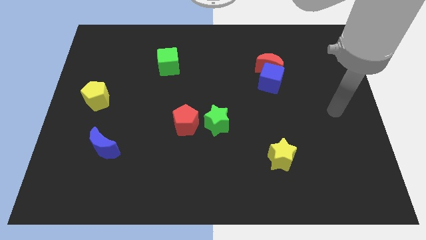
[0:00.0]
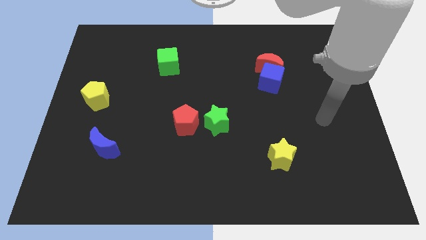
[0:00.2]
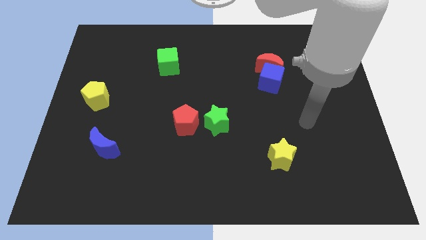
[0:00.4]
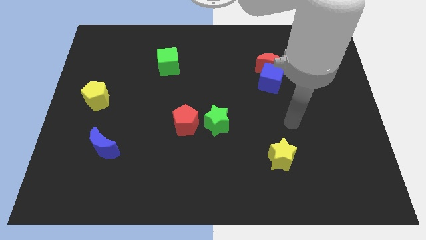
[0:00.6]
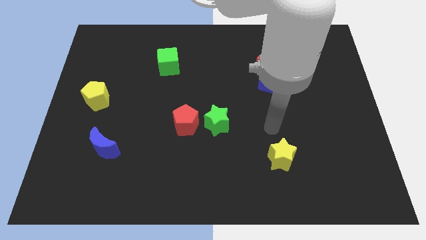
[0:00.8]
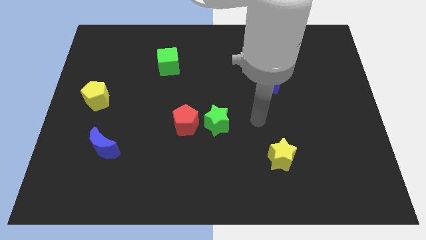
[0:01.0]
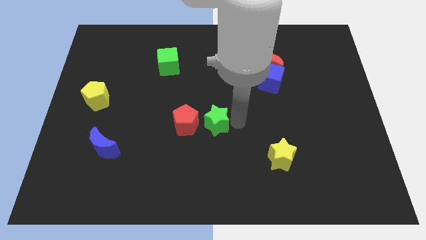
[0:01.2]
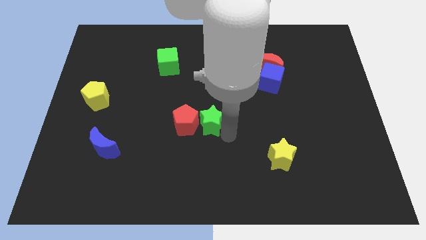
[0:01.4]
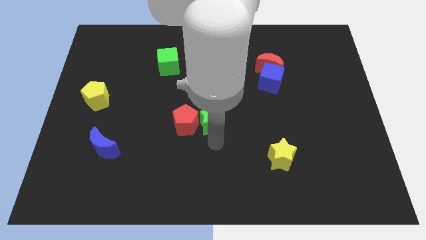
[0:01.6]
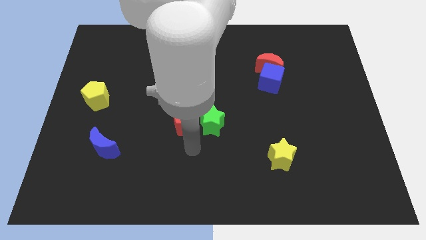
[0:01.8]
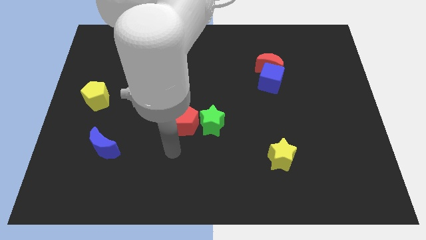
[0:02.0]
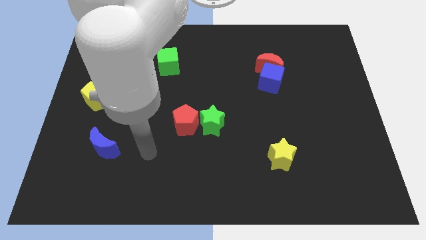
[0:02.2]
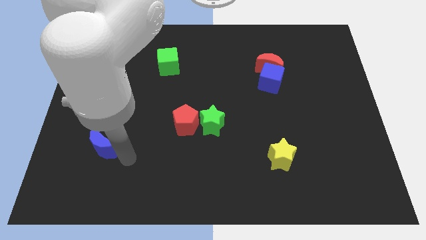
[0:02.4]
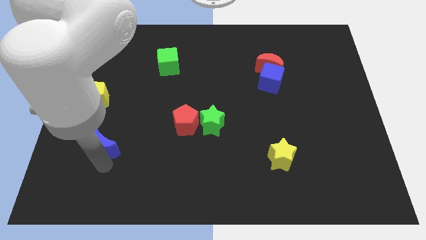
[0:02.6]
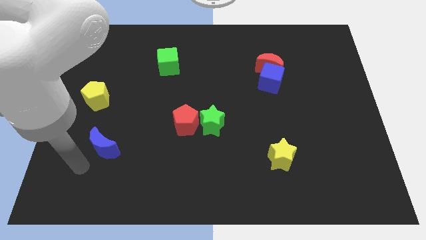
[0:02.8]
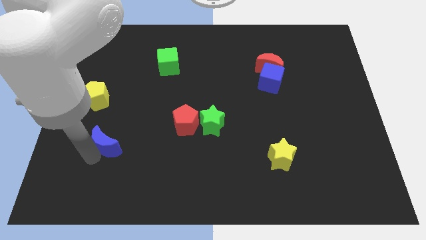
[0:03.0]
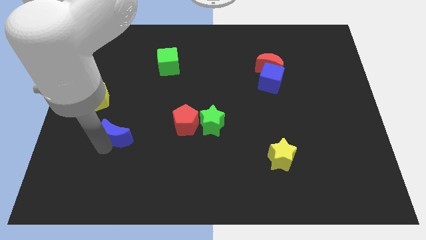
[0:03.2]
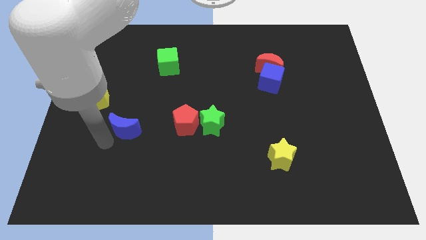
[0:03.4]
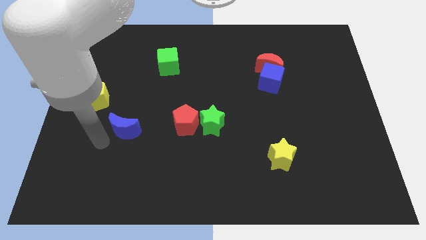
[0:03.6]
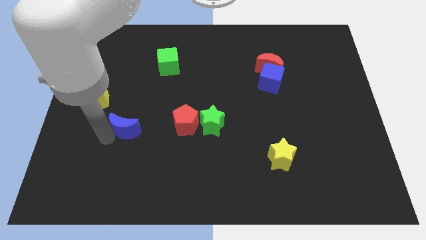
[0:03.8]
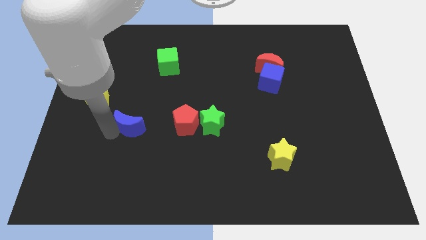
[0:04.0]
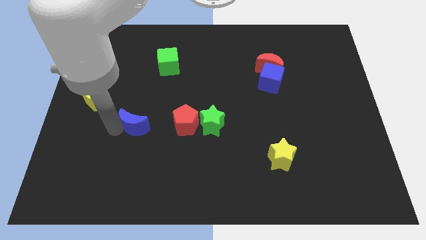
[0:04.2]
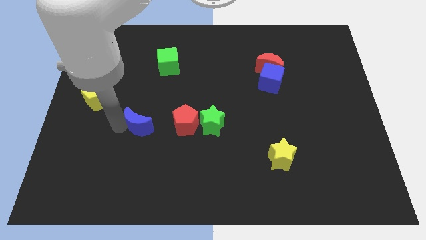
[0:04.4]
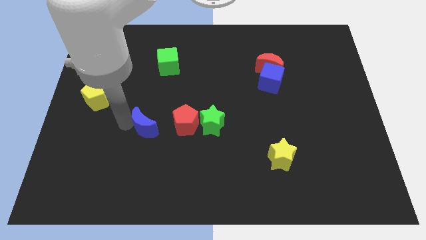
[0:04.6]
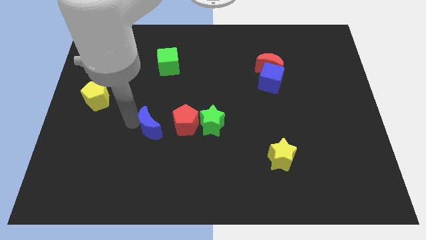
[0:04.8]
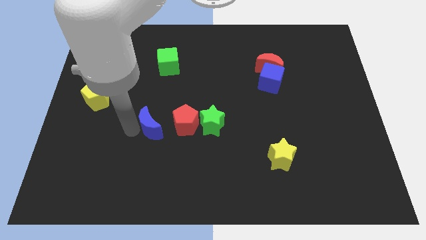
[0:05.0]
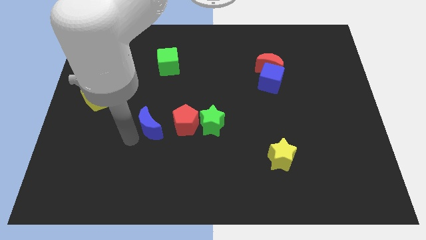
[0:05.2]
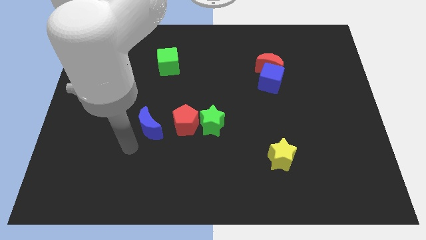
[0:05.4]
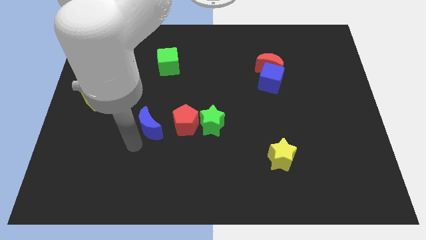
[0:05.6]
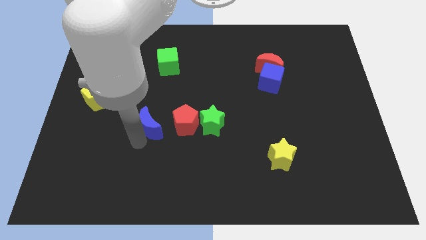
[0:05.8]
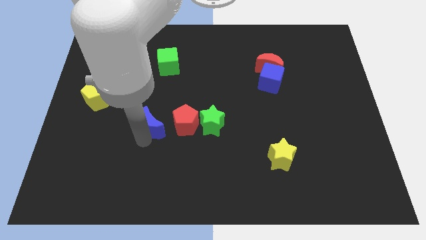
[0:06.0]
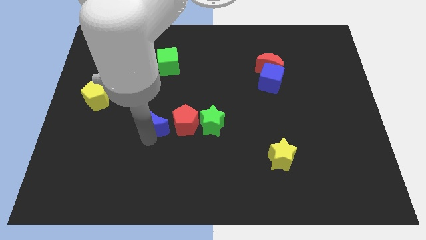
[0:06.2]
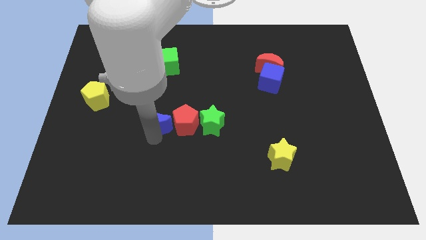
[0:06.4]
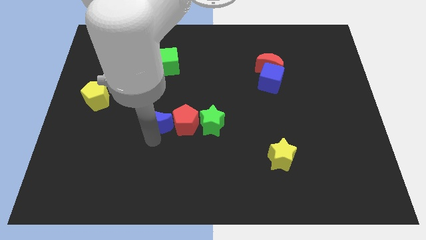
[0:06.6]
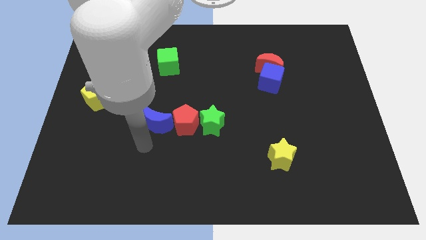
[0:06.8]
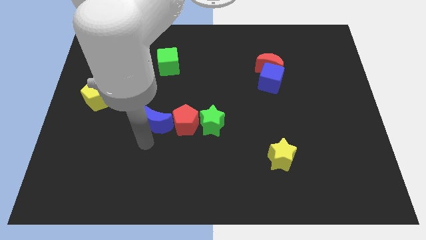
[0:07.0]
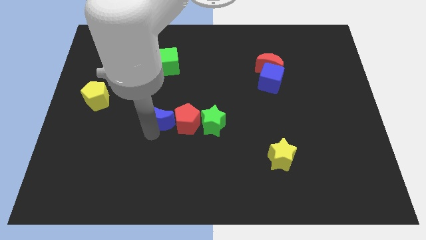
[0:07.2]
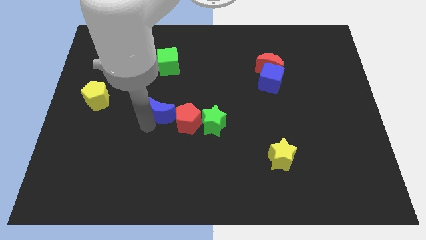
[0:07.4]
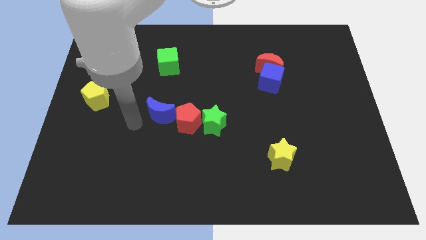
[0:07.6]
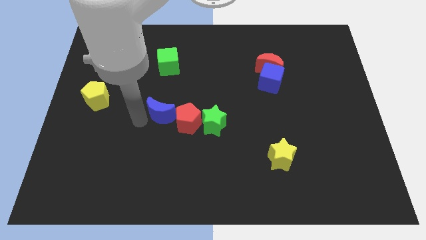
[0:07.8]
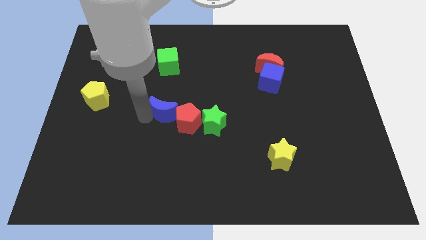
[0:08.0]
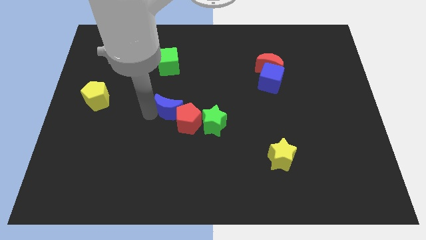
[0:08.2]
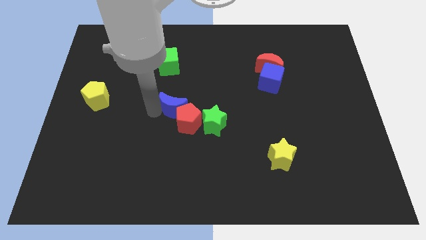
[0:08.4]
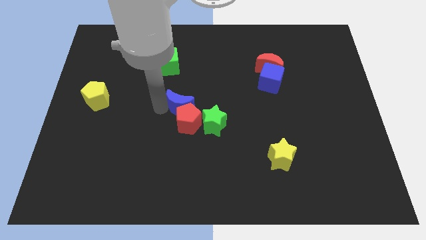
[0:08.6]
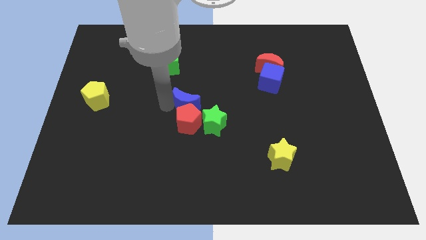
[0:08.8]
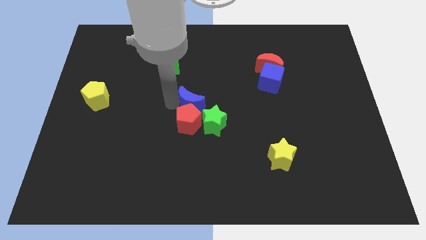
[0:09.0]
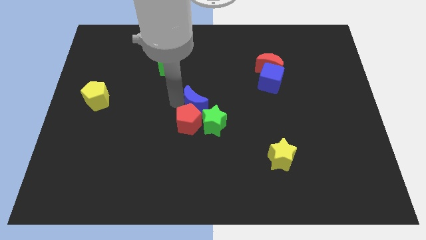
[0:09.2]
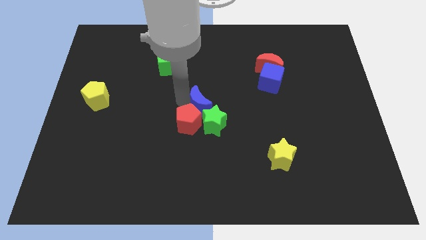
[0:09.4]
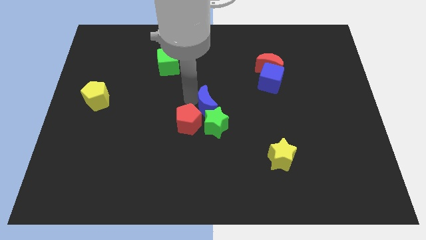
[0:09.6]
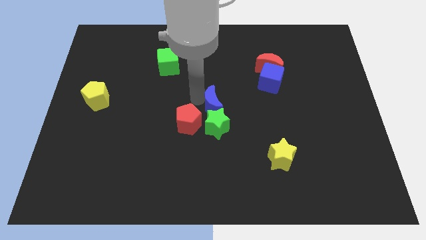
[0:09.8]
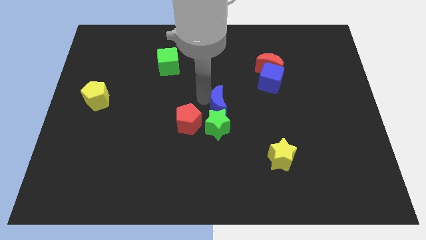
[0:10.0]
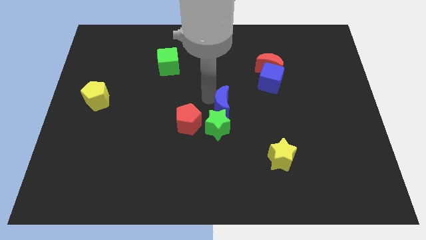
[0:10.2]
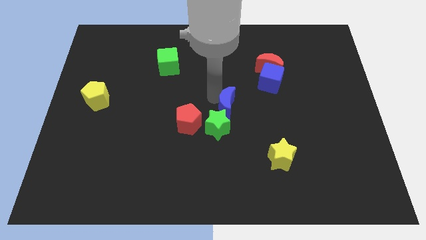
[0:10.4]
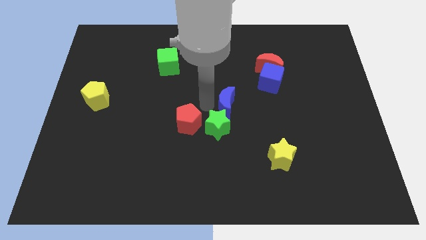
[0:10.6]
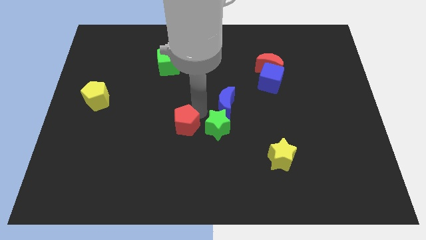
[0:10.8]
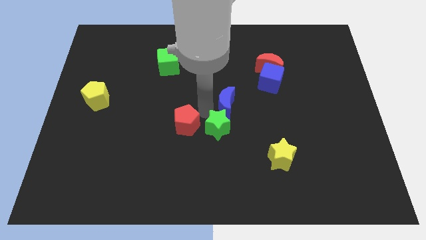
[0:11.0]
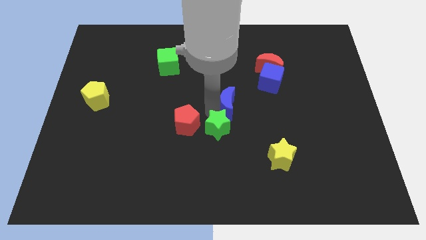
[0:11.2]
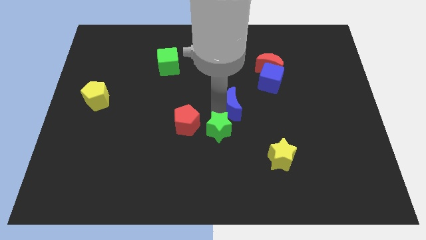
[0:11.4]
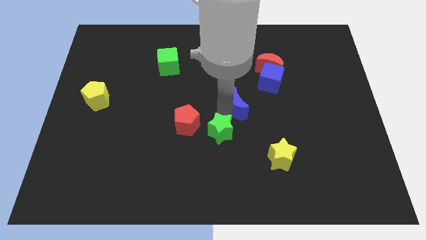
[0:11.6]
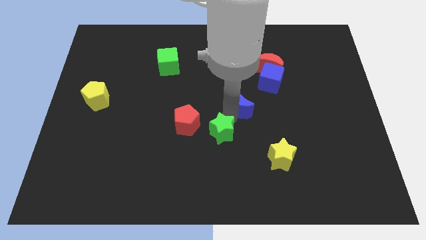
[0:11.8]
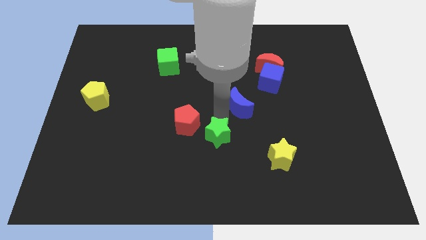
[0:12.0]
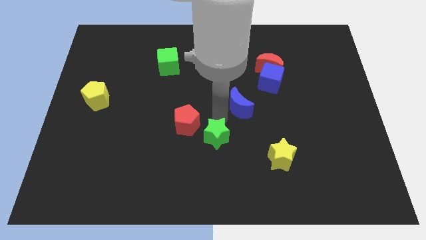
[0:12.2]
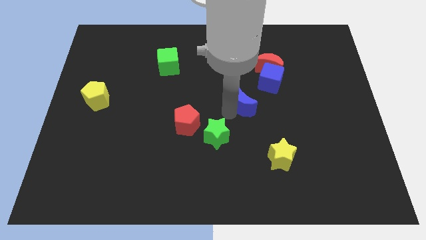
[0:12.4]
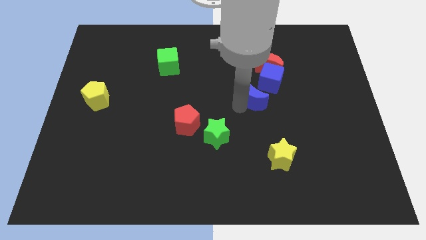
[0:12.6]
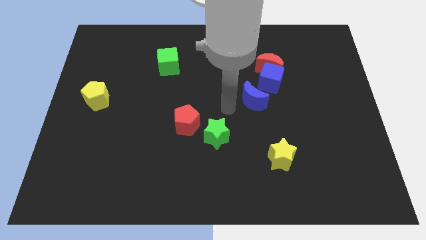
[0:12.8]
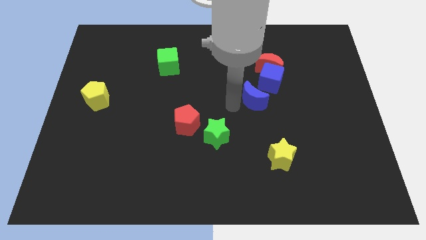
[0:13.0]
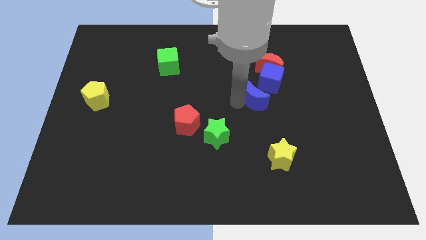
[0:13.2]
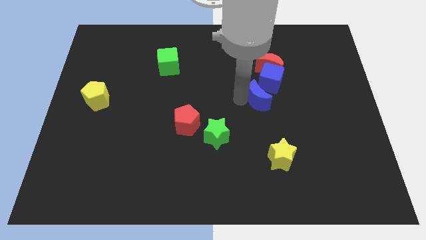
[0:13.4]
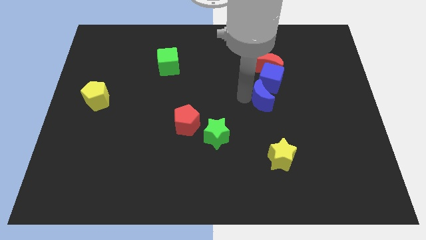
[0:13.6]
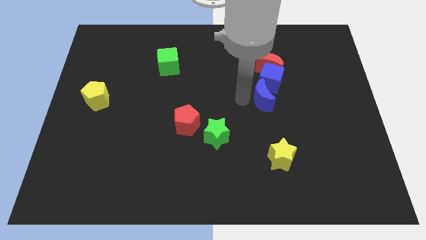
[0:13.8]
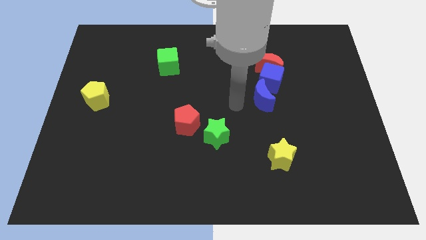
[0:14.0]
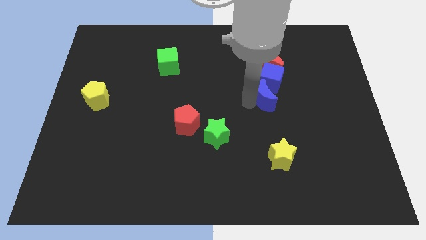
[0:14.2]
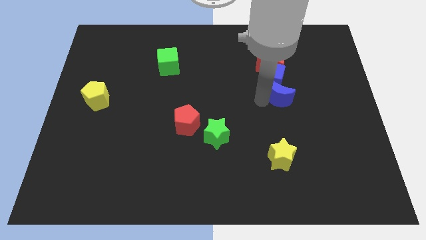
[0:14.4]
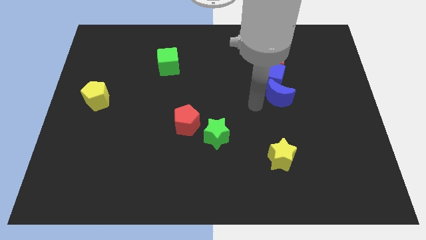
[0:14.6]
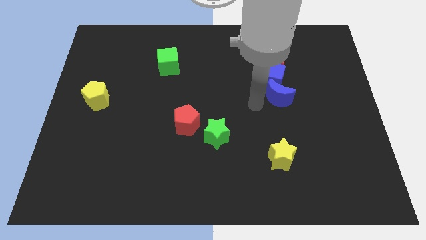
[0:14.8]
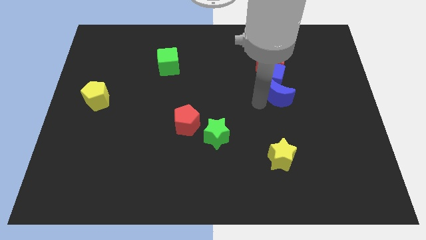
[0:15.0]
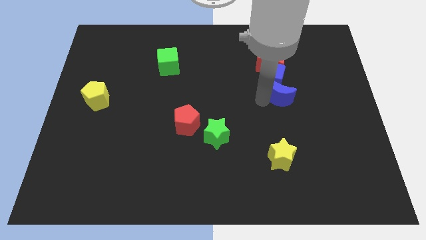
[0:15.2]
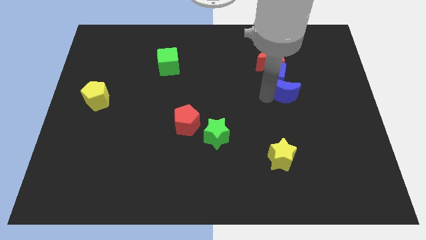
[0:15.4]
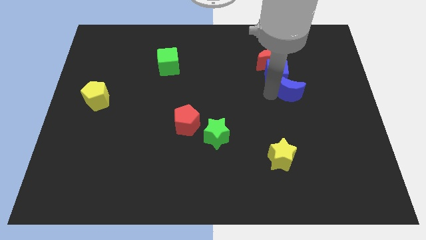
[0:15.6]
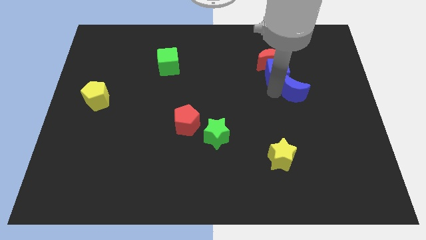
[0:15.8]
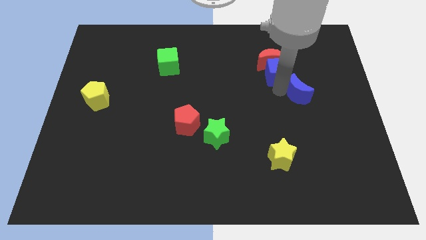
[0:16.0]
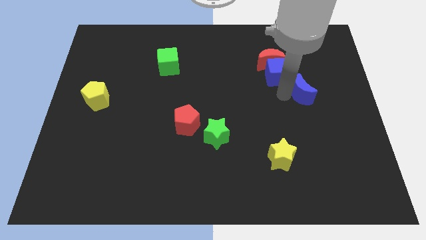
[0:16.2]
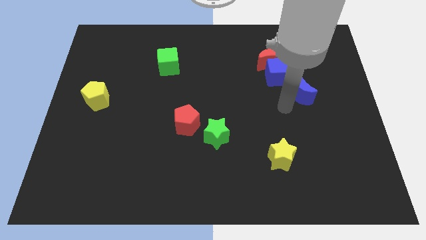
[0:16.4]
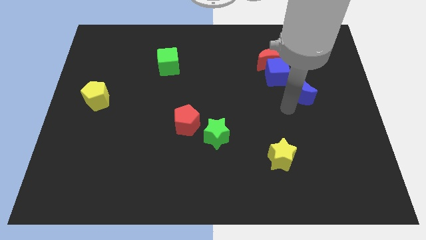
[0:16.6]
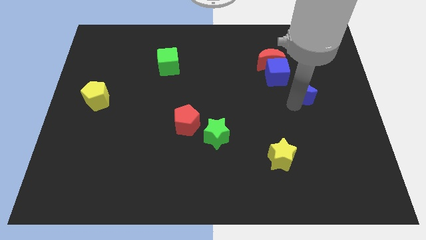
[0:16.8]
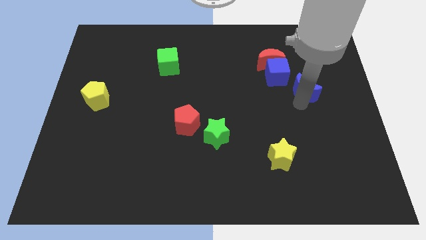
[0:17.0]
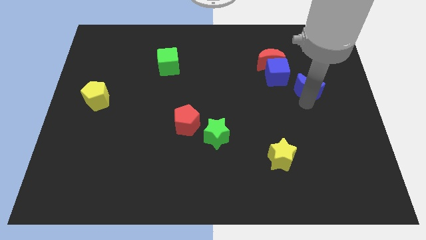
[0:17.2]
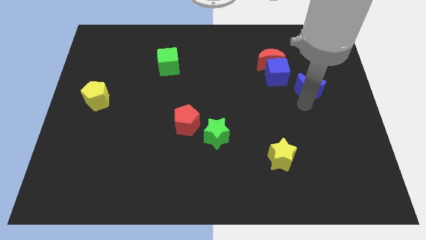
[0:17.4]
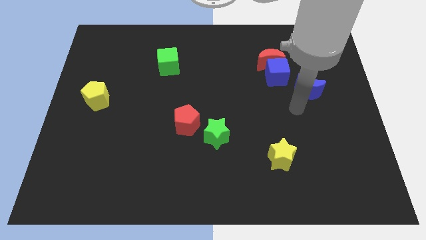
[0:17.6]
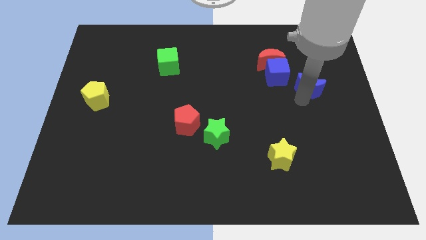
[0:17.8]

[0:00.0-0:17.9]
move the blue moon just right of the blue cube
